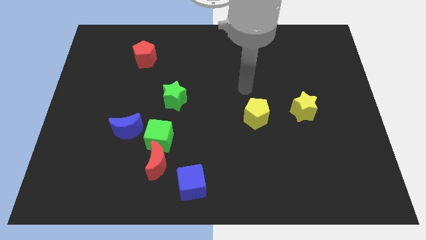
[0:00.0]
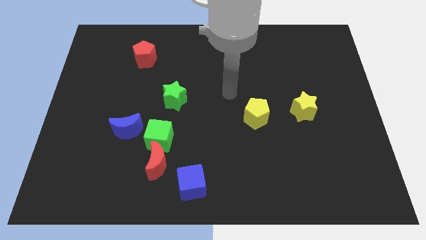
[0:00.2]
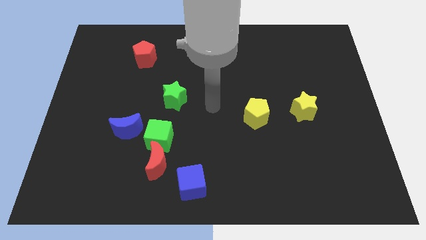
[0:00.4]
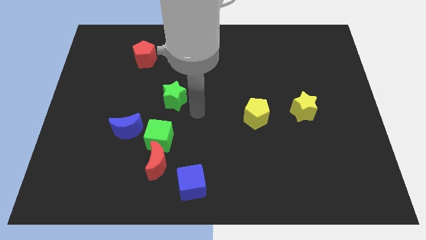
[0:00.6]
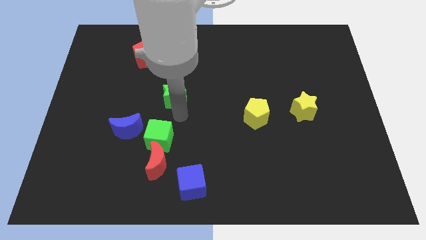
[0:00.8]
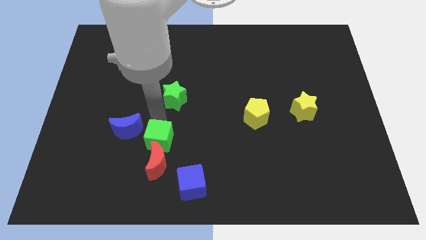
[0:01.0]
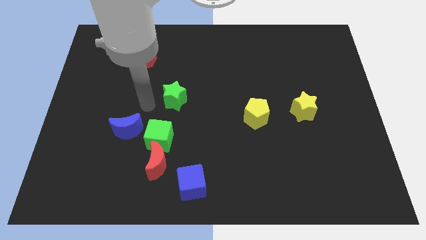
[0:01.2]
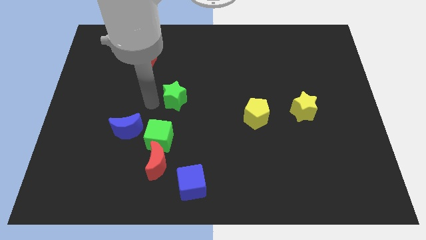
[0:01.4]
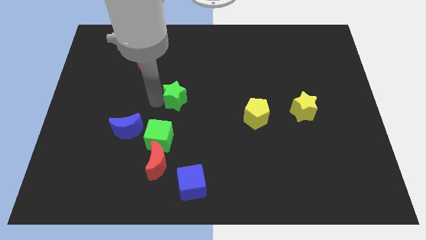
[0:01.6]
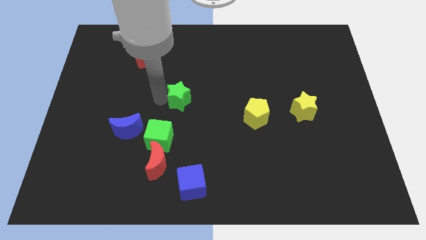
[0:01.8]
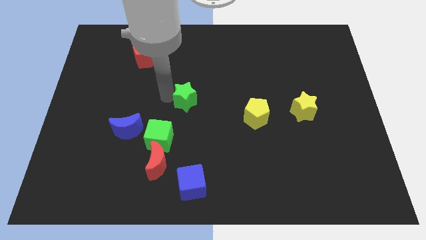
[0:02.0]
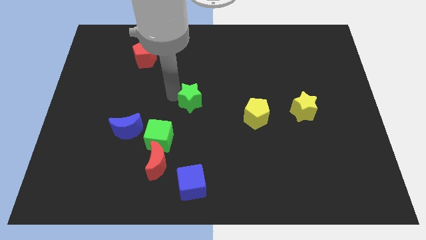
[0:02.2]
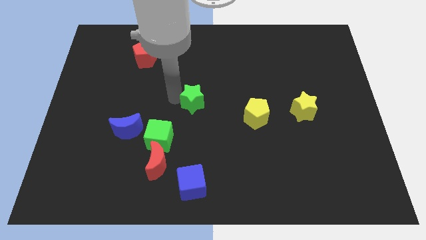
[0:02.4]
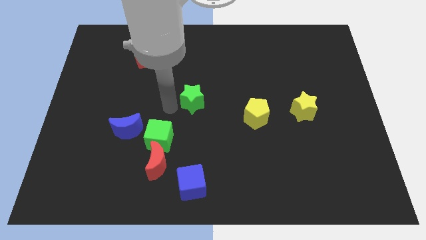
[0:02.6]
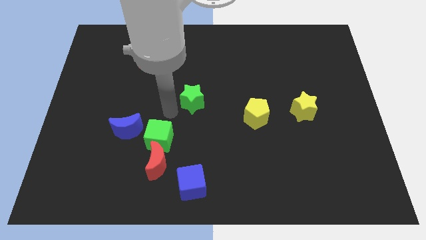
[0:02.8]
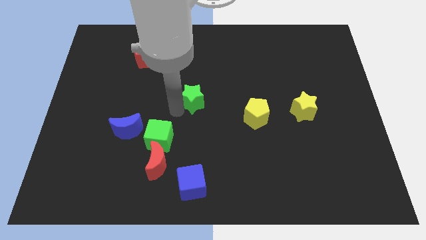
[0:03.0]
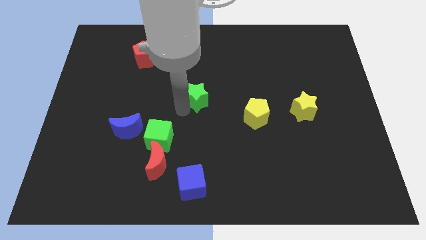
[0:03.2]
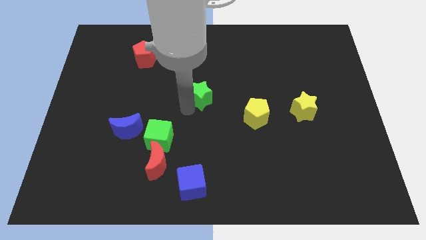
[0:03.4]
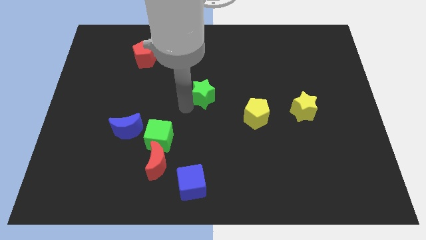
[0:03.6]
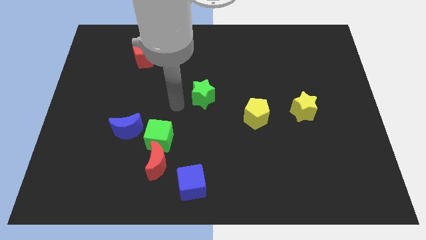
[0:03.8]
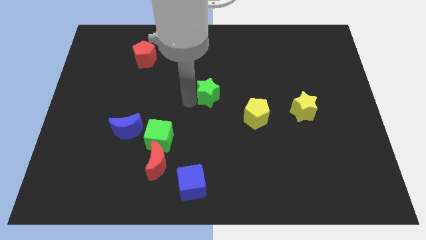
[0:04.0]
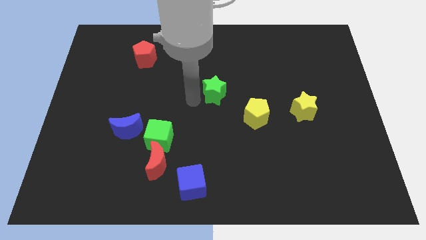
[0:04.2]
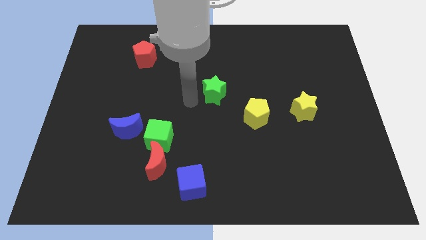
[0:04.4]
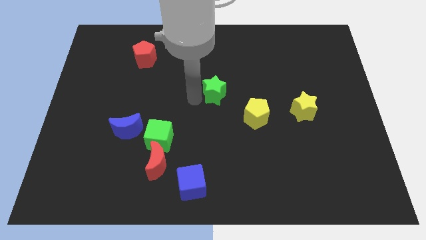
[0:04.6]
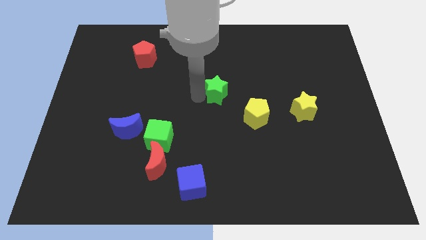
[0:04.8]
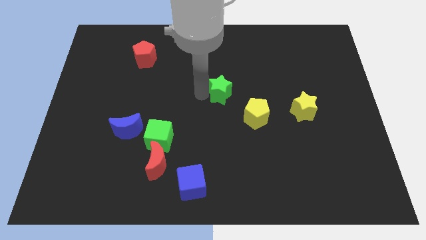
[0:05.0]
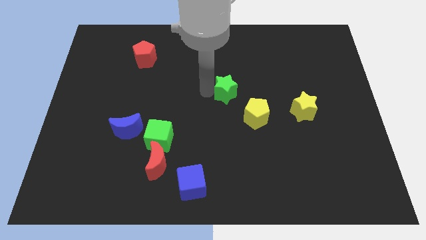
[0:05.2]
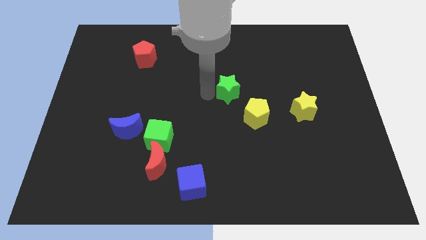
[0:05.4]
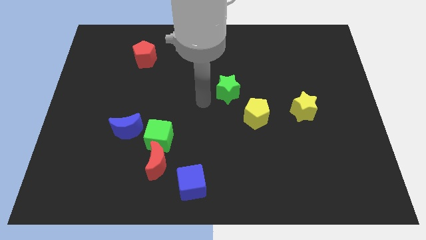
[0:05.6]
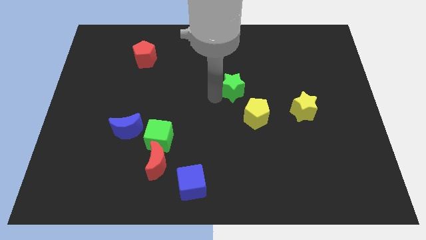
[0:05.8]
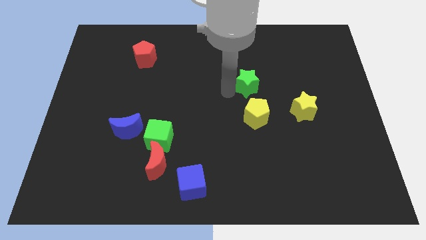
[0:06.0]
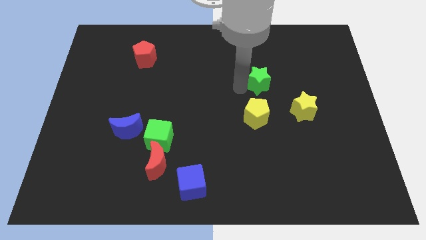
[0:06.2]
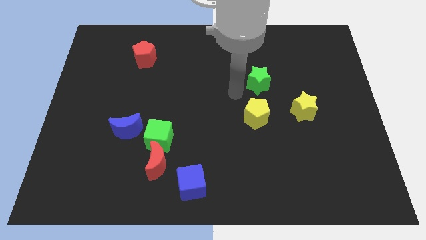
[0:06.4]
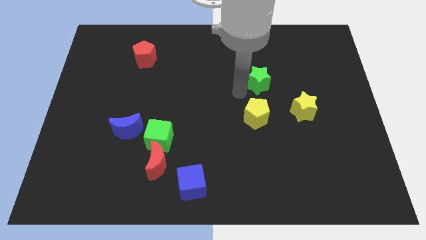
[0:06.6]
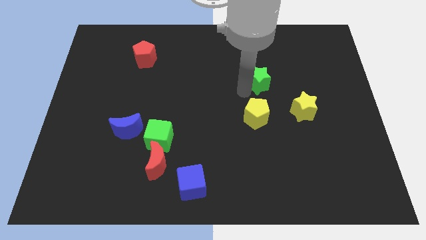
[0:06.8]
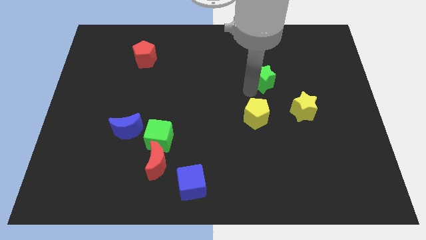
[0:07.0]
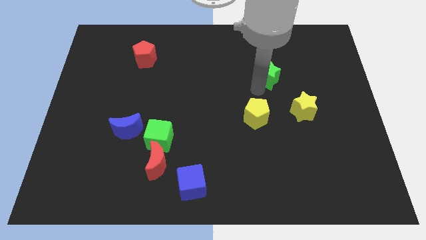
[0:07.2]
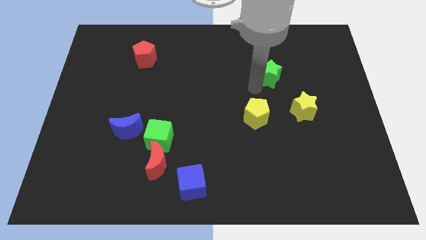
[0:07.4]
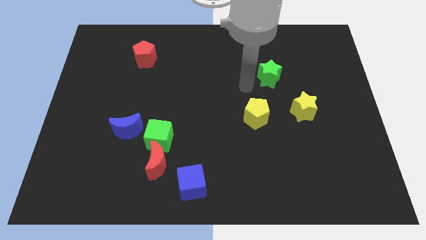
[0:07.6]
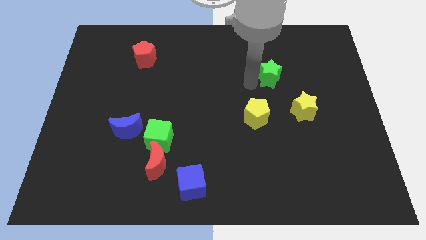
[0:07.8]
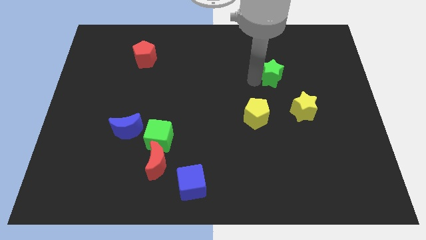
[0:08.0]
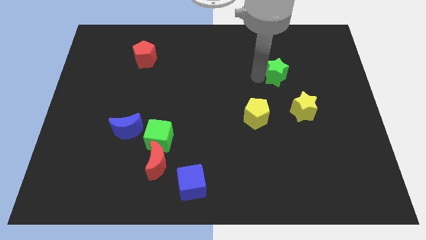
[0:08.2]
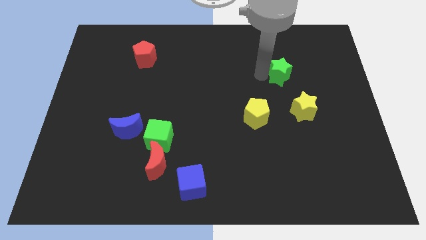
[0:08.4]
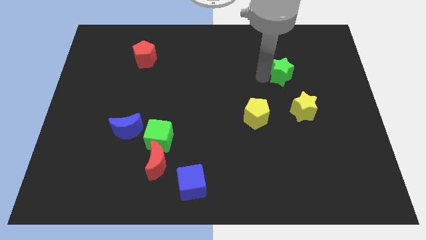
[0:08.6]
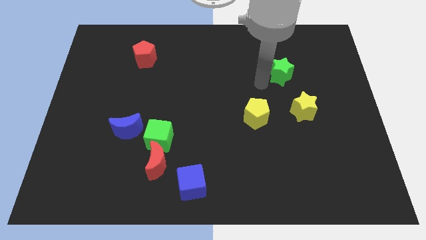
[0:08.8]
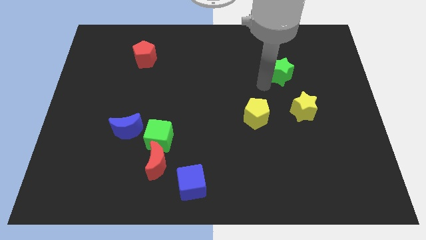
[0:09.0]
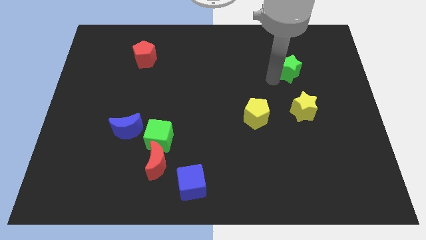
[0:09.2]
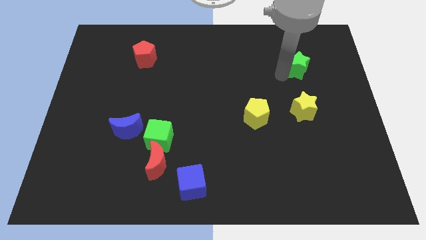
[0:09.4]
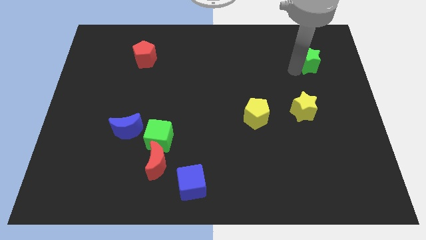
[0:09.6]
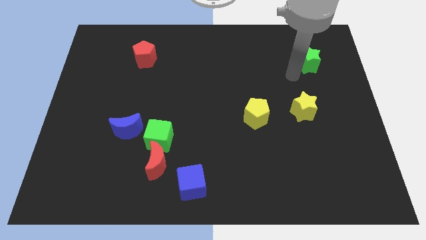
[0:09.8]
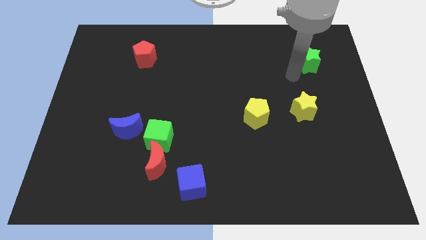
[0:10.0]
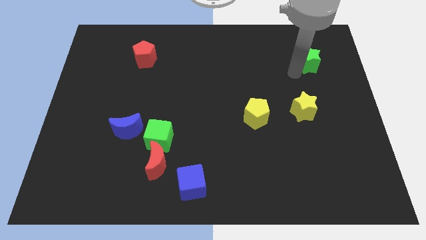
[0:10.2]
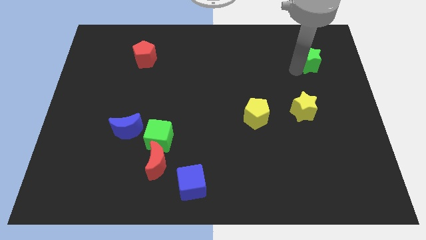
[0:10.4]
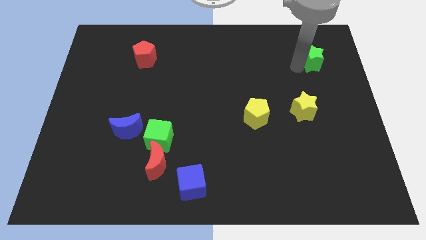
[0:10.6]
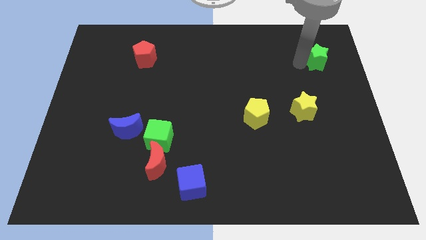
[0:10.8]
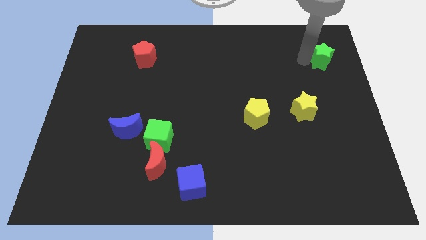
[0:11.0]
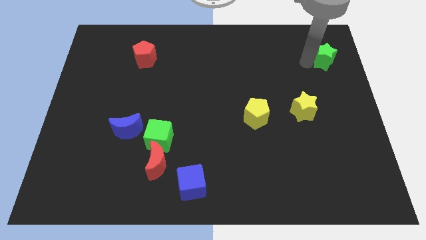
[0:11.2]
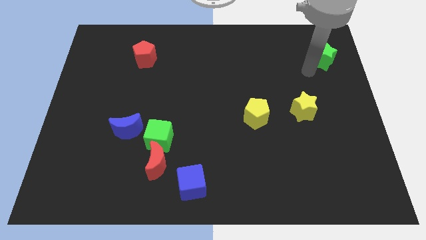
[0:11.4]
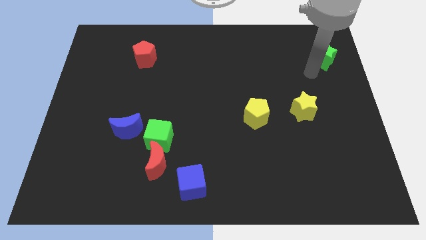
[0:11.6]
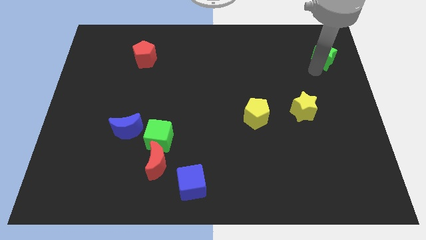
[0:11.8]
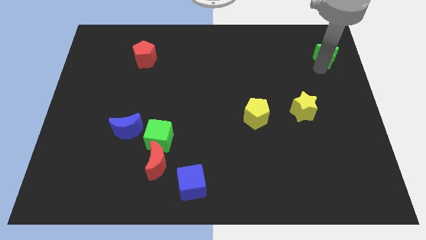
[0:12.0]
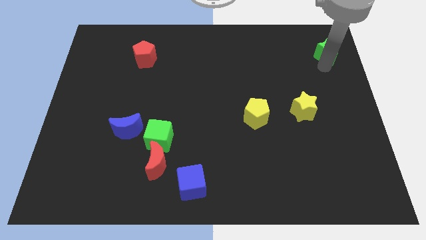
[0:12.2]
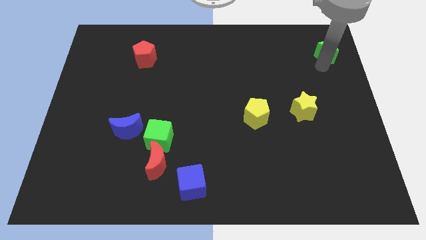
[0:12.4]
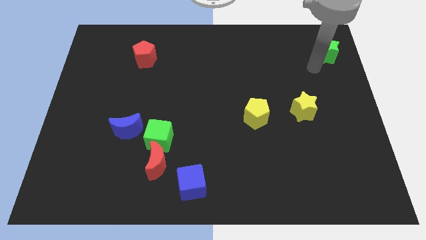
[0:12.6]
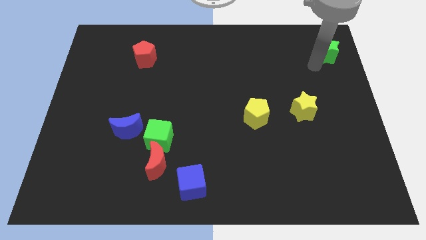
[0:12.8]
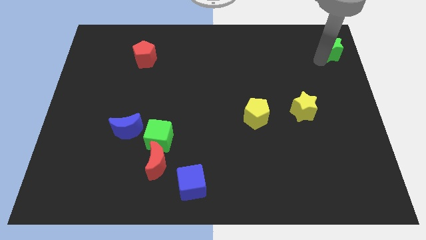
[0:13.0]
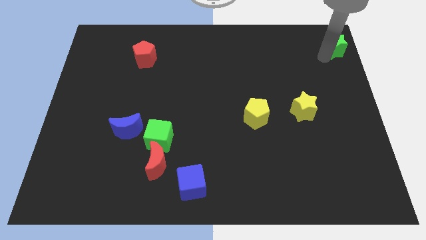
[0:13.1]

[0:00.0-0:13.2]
slide the green star to the upper right corner
